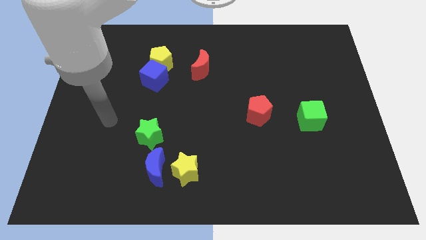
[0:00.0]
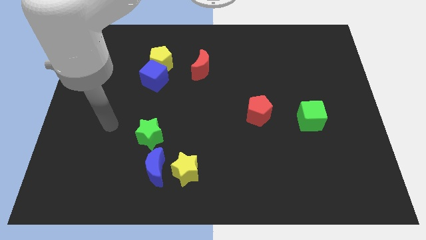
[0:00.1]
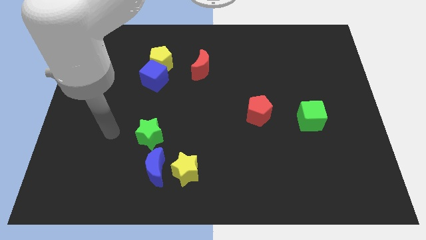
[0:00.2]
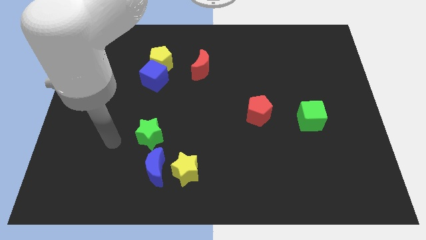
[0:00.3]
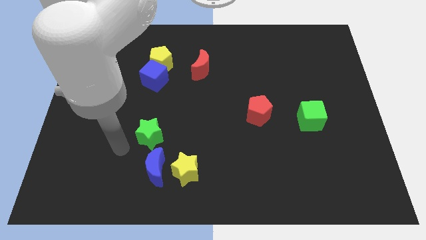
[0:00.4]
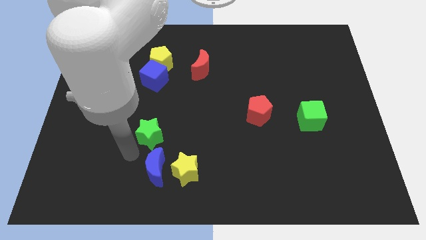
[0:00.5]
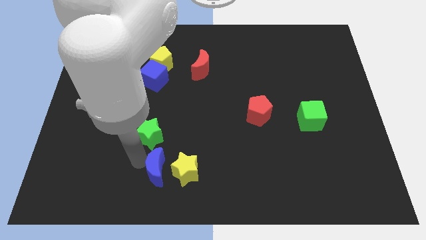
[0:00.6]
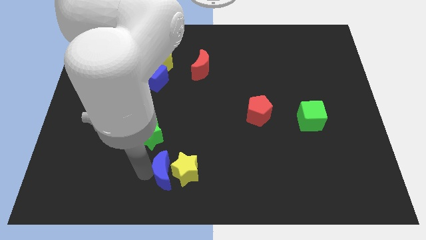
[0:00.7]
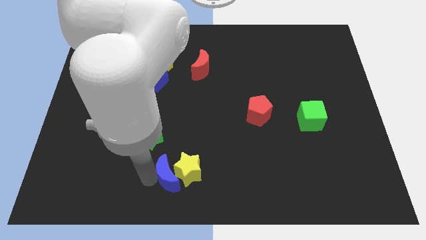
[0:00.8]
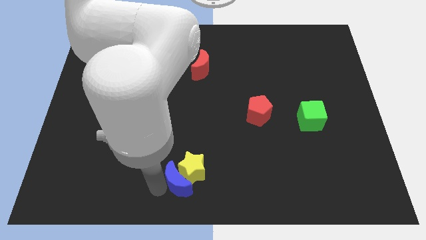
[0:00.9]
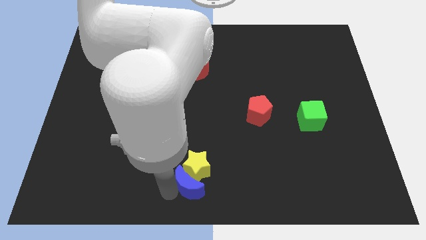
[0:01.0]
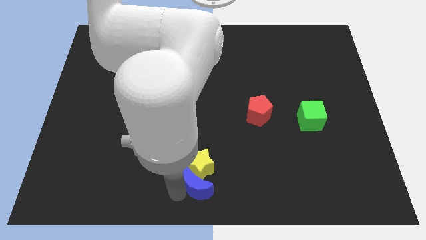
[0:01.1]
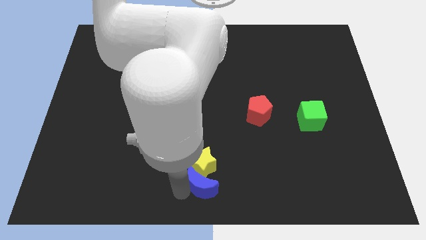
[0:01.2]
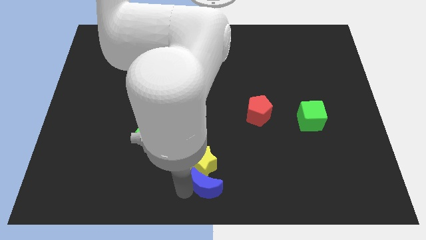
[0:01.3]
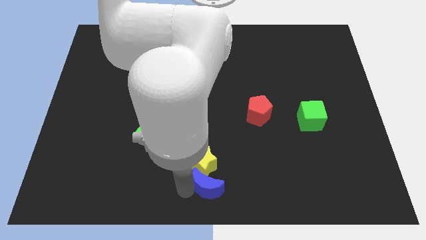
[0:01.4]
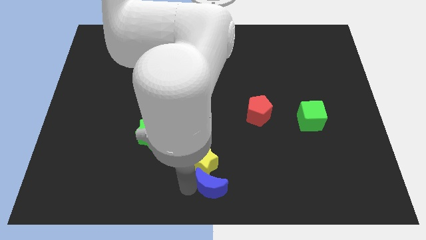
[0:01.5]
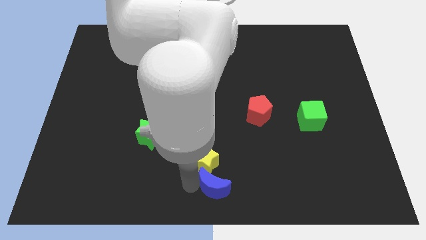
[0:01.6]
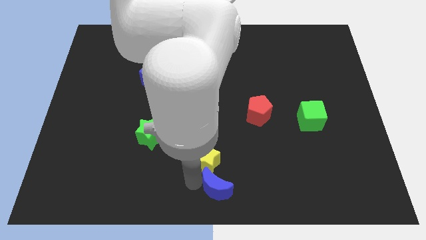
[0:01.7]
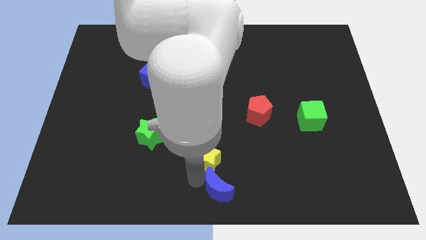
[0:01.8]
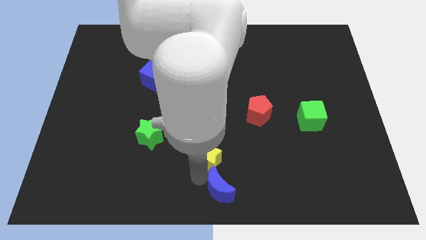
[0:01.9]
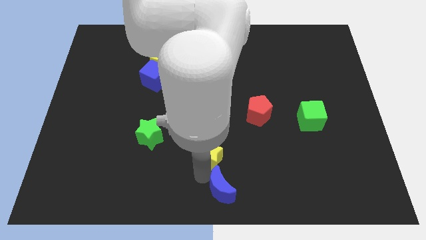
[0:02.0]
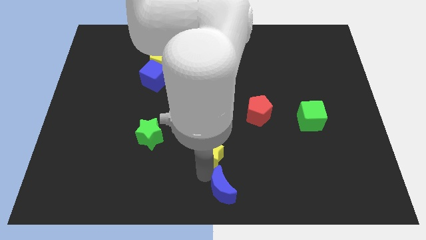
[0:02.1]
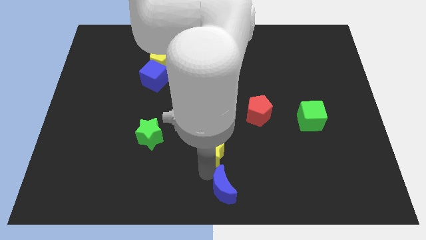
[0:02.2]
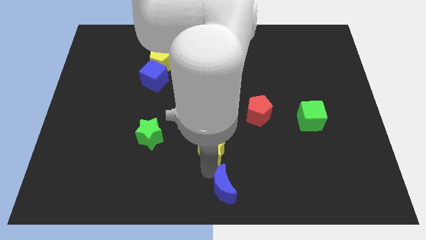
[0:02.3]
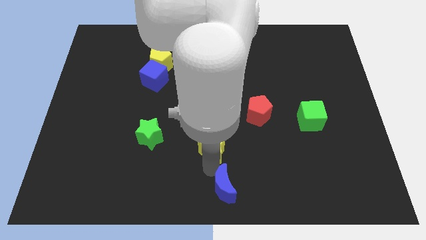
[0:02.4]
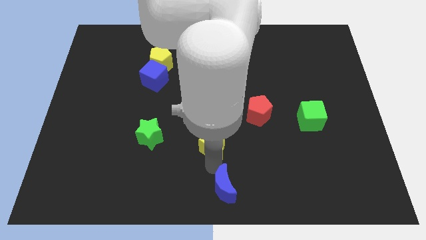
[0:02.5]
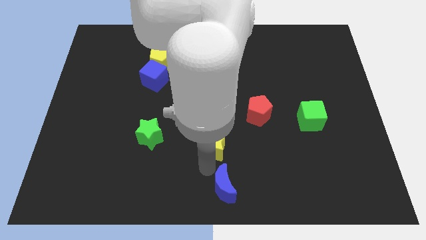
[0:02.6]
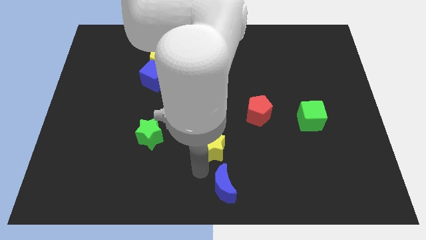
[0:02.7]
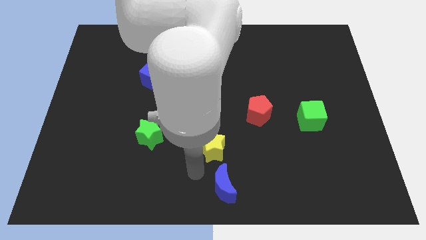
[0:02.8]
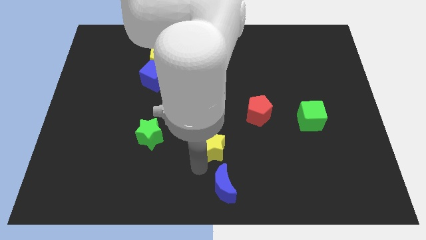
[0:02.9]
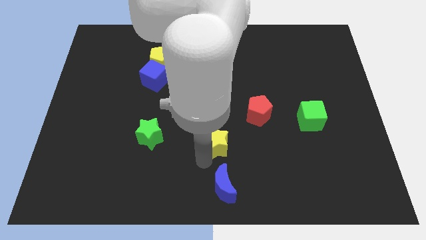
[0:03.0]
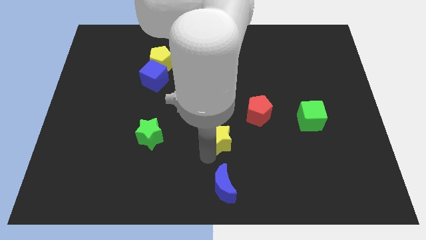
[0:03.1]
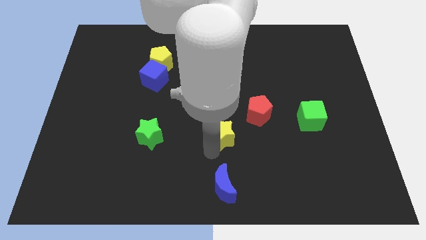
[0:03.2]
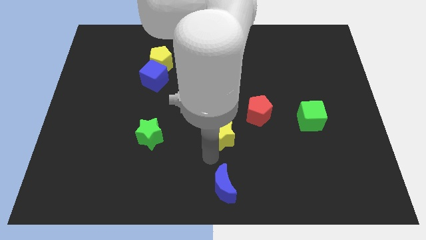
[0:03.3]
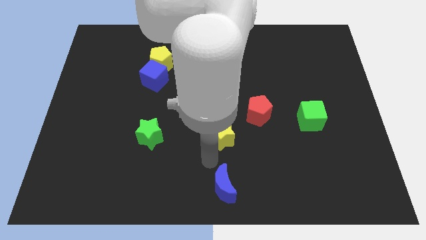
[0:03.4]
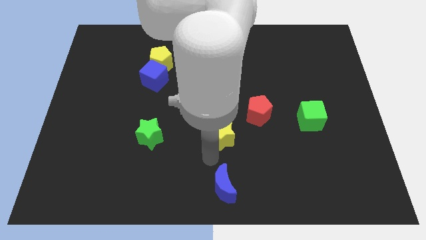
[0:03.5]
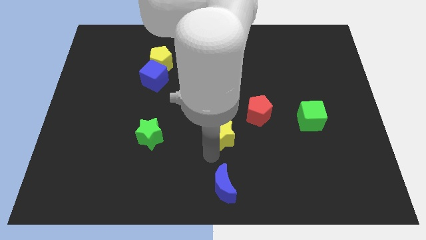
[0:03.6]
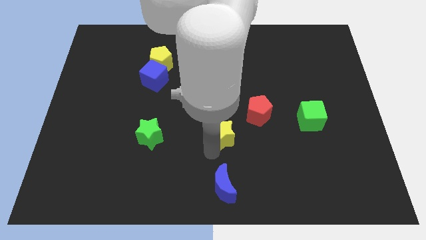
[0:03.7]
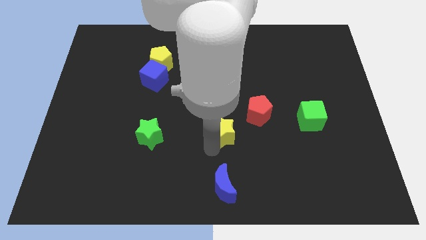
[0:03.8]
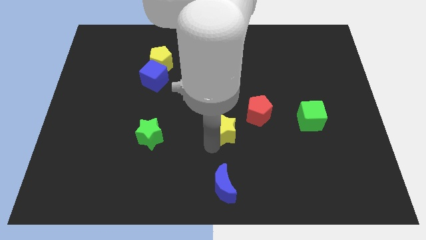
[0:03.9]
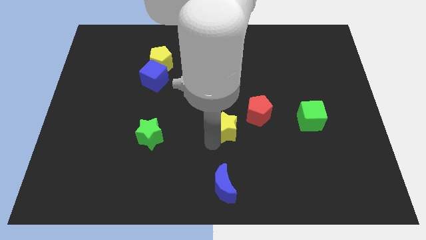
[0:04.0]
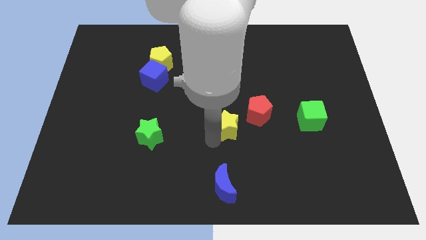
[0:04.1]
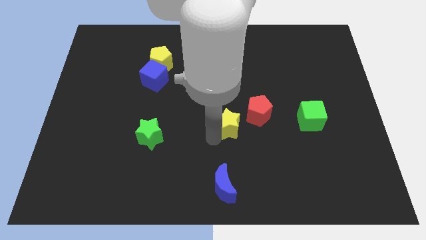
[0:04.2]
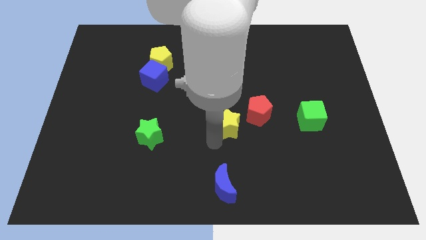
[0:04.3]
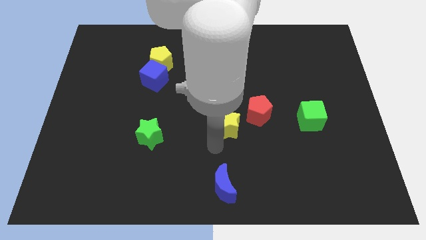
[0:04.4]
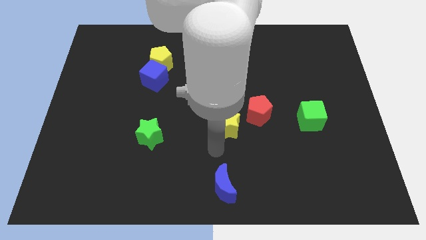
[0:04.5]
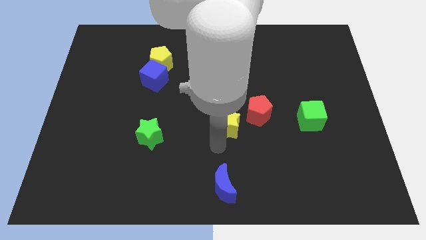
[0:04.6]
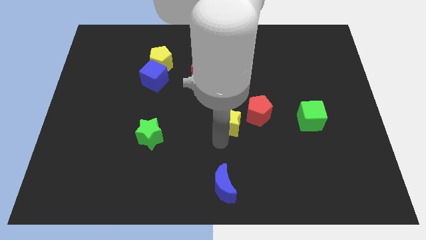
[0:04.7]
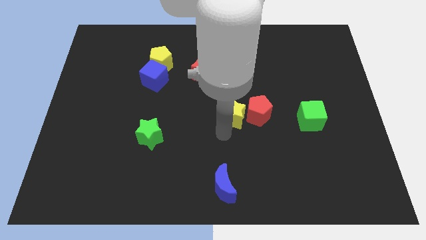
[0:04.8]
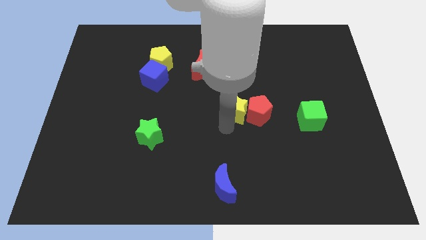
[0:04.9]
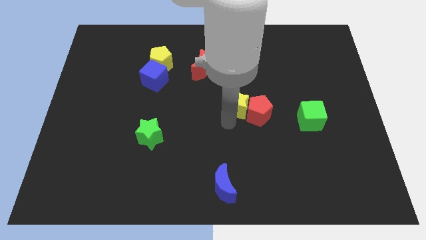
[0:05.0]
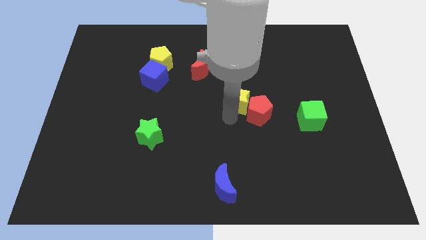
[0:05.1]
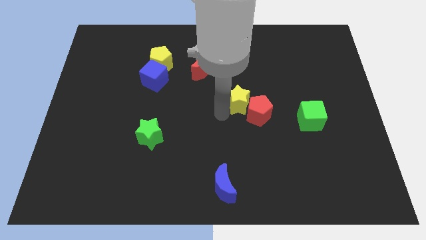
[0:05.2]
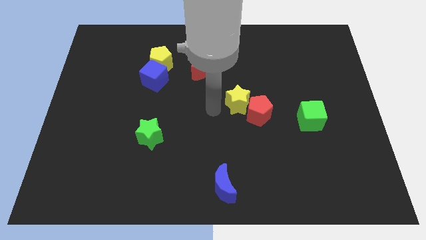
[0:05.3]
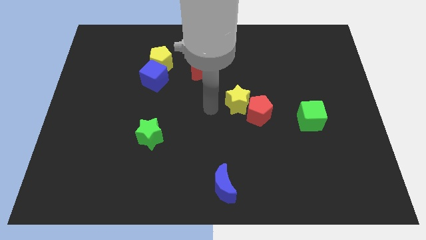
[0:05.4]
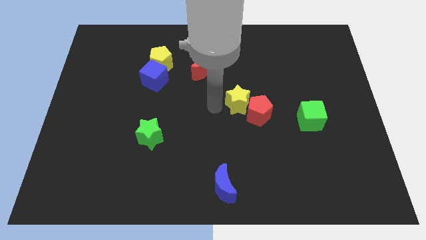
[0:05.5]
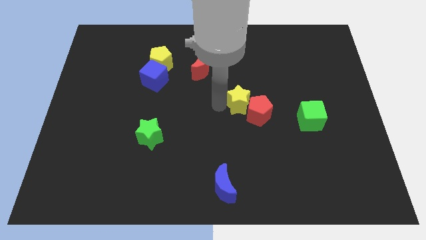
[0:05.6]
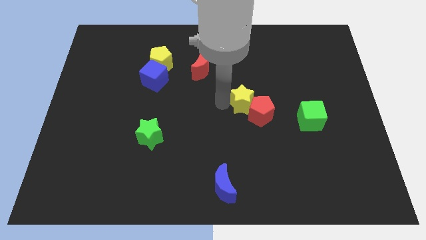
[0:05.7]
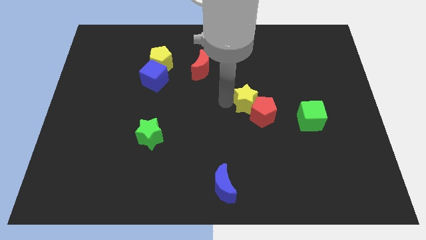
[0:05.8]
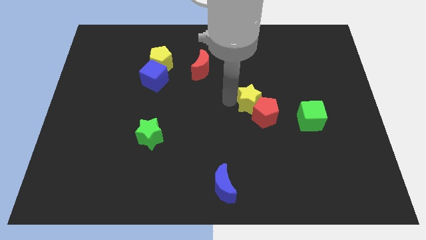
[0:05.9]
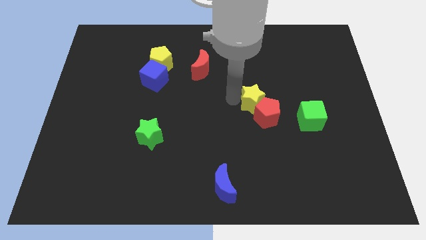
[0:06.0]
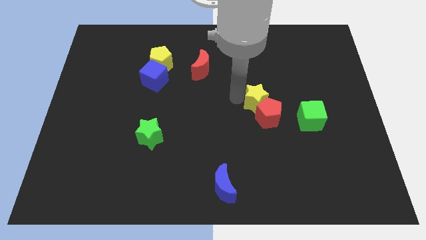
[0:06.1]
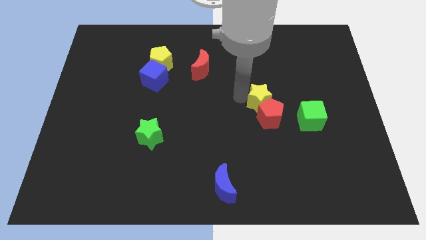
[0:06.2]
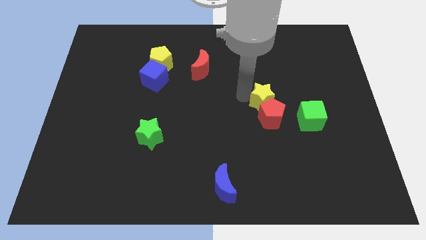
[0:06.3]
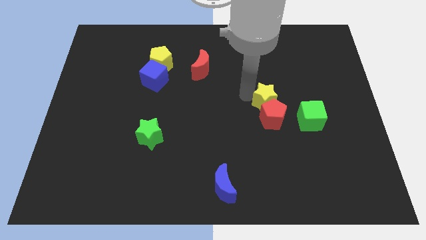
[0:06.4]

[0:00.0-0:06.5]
move the yellow star diagonally up and to the right of the red pentagon
